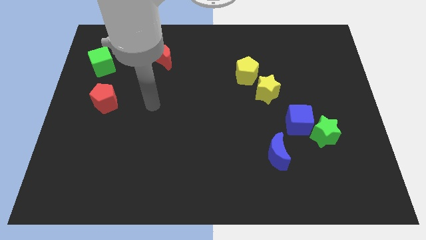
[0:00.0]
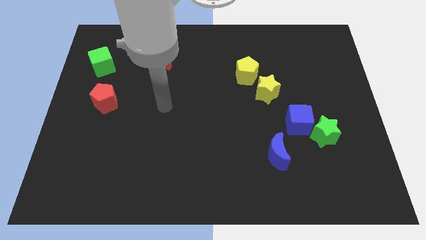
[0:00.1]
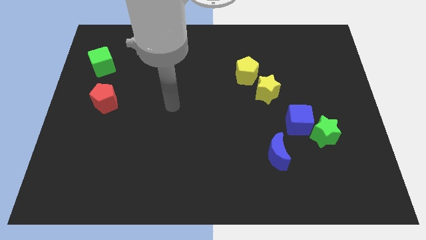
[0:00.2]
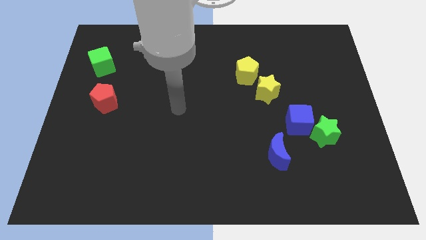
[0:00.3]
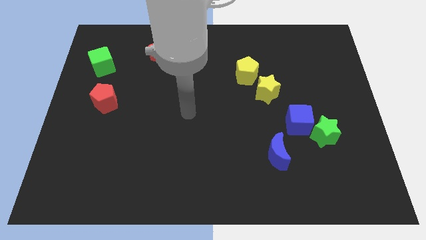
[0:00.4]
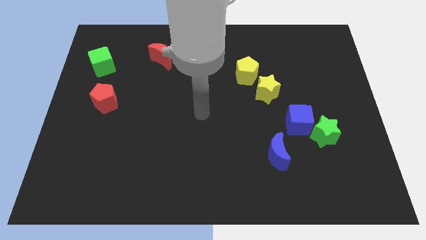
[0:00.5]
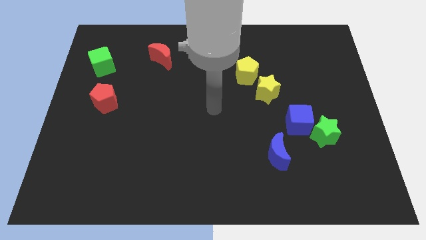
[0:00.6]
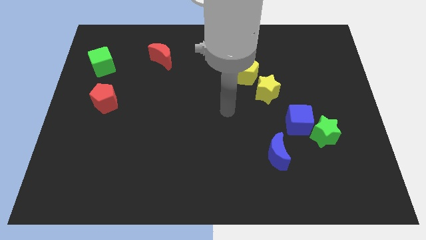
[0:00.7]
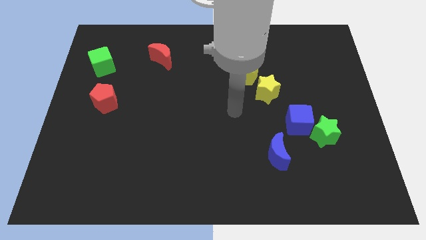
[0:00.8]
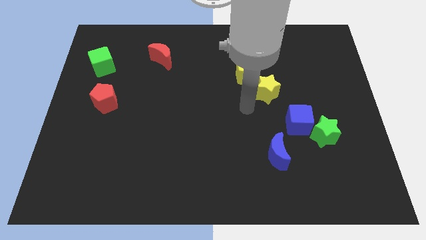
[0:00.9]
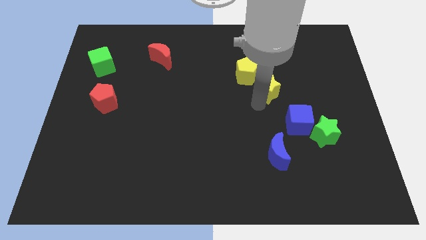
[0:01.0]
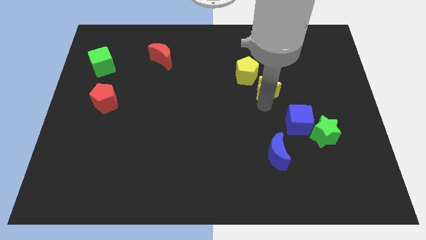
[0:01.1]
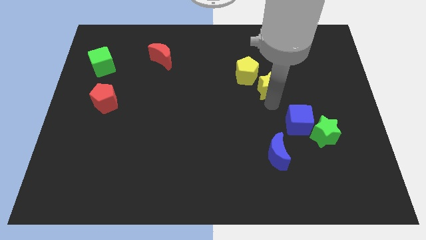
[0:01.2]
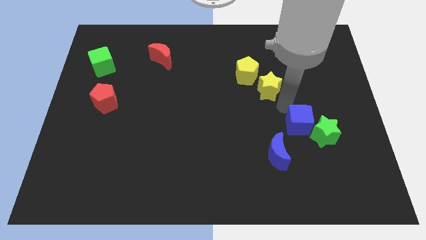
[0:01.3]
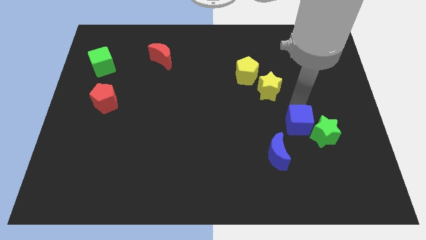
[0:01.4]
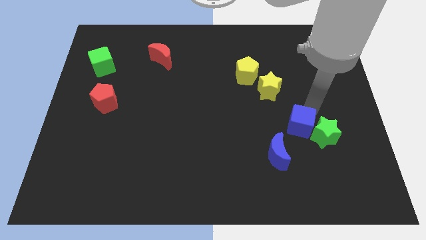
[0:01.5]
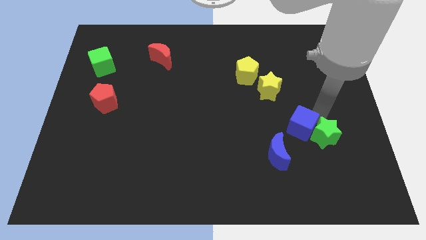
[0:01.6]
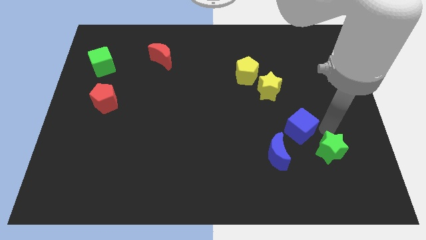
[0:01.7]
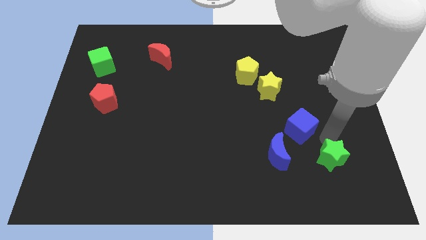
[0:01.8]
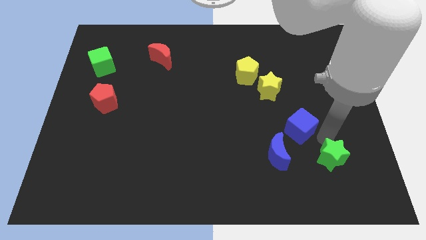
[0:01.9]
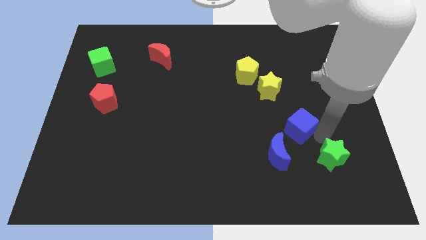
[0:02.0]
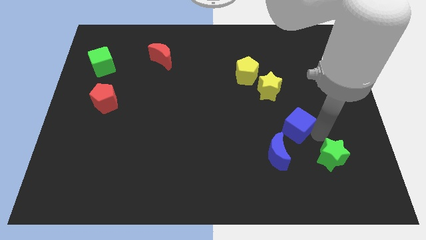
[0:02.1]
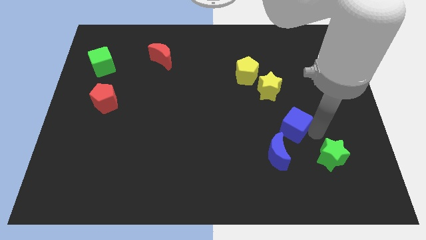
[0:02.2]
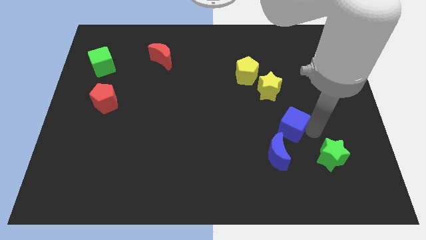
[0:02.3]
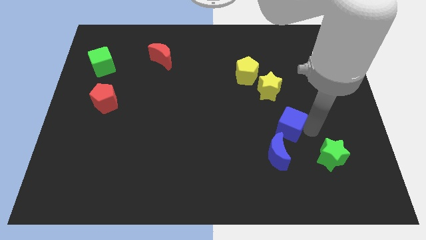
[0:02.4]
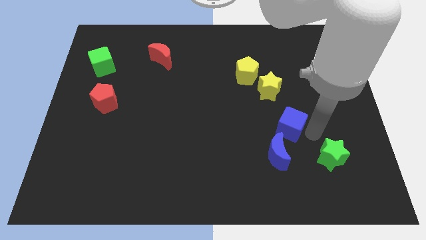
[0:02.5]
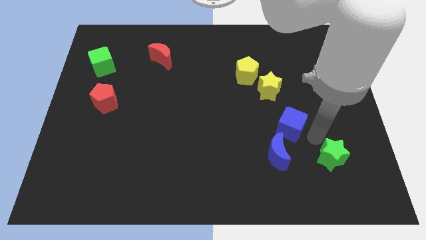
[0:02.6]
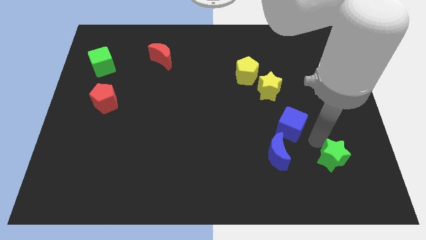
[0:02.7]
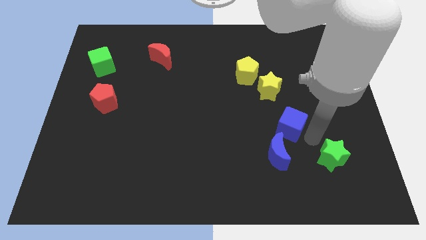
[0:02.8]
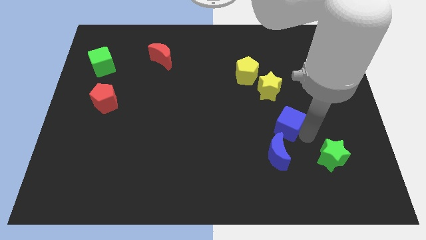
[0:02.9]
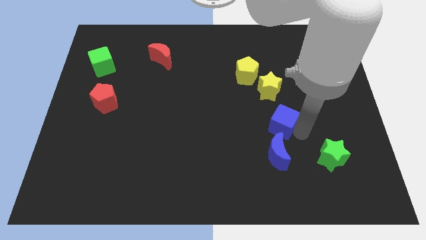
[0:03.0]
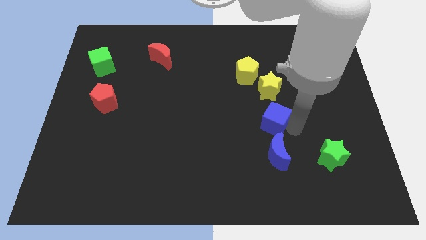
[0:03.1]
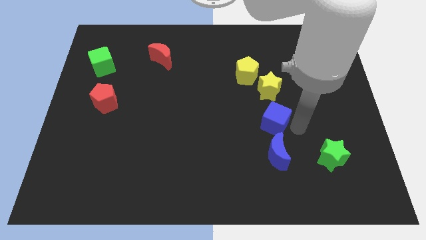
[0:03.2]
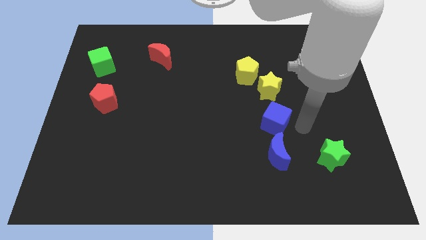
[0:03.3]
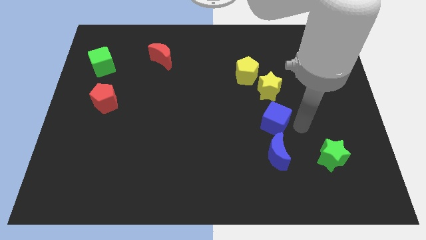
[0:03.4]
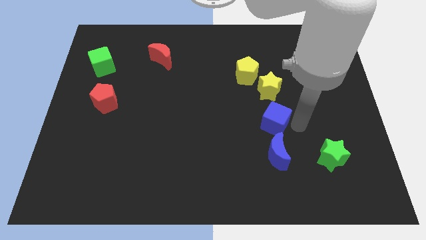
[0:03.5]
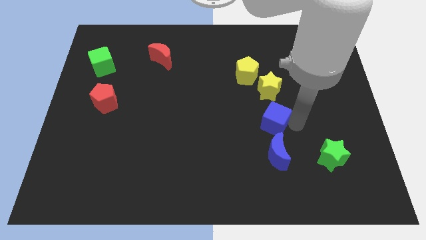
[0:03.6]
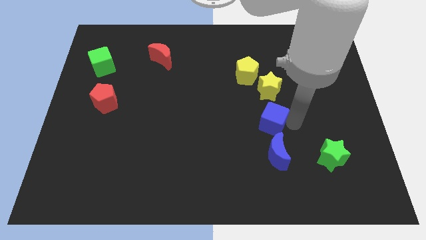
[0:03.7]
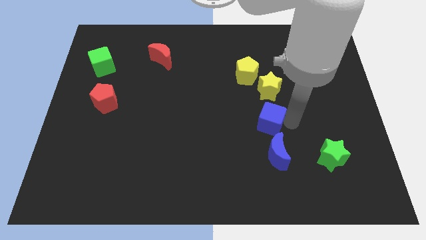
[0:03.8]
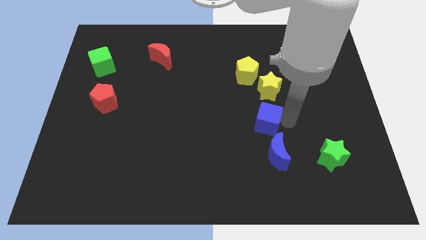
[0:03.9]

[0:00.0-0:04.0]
slightly move the blue cube to the left

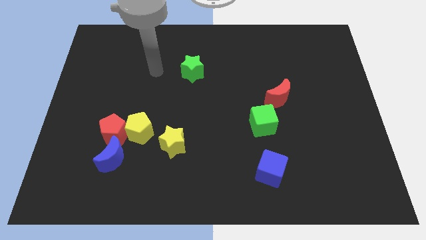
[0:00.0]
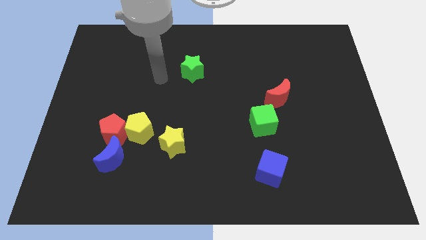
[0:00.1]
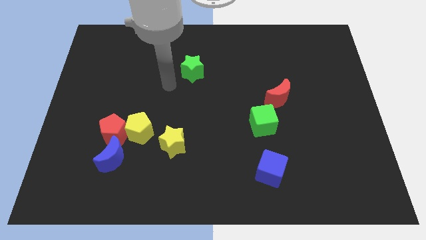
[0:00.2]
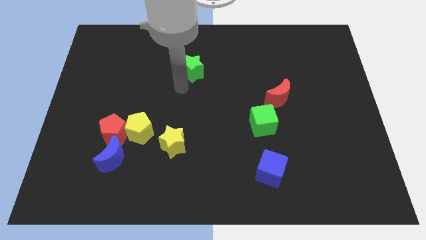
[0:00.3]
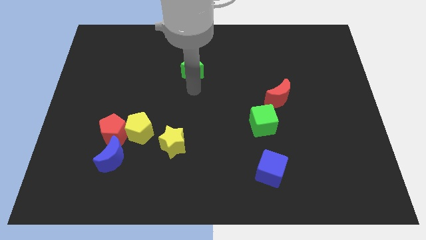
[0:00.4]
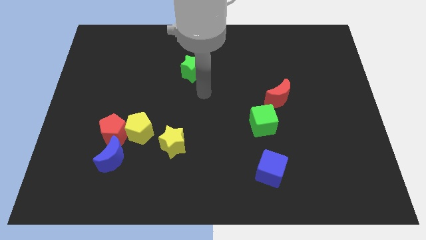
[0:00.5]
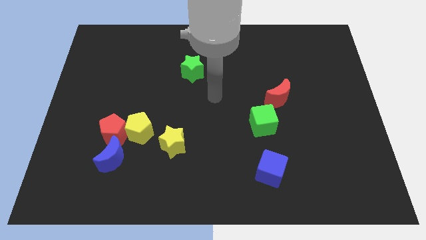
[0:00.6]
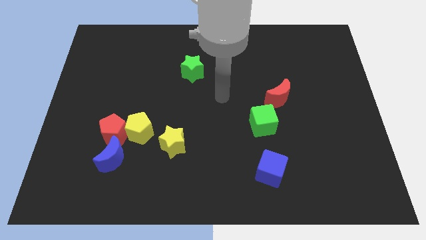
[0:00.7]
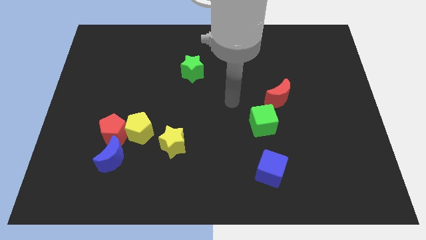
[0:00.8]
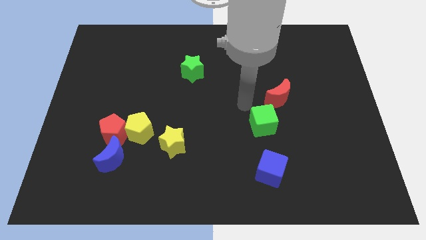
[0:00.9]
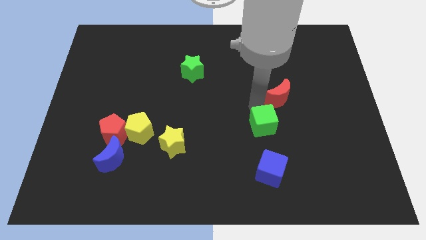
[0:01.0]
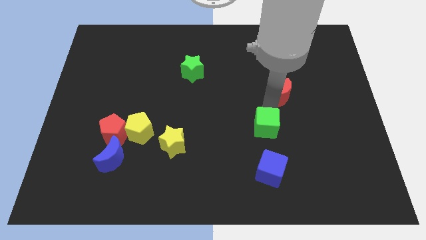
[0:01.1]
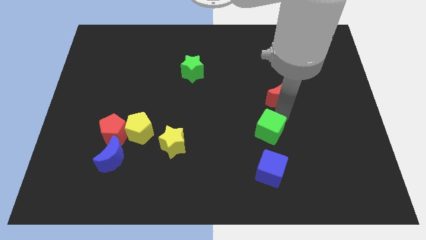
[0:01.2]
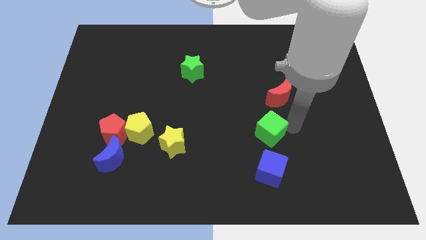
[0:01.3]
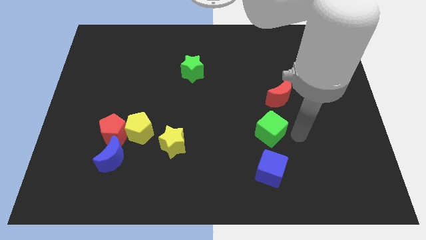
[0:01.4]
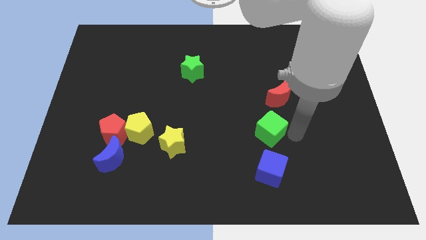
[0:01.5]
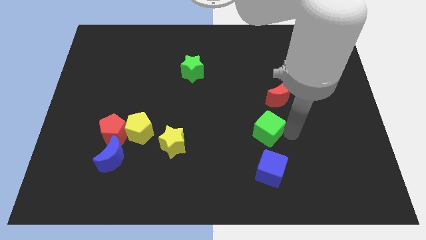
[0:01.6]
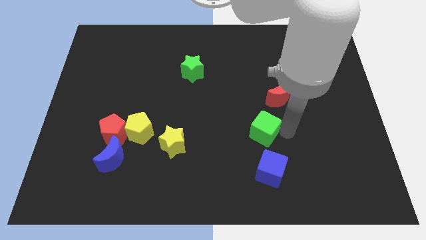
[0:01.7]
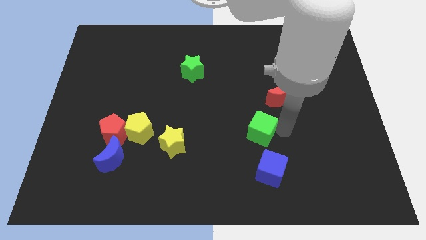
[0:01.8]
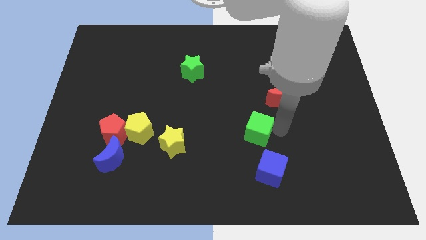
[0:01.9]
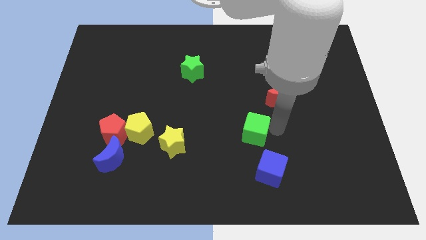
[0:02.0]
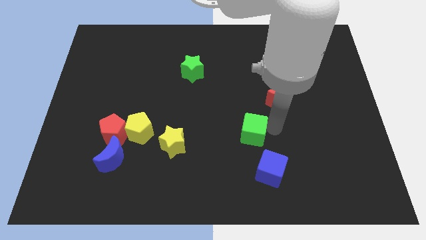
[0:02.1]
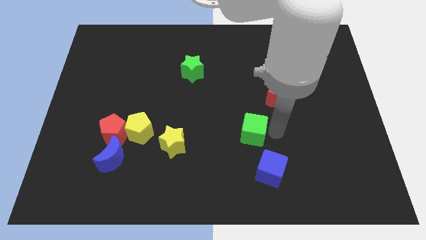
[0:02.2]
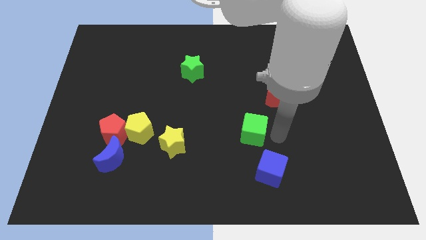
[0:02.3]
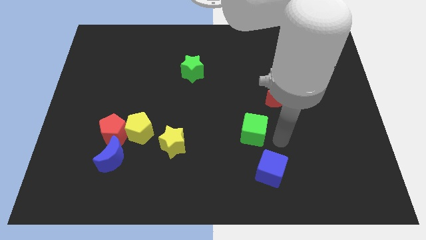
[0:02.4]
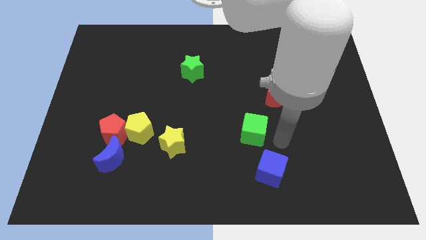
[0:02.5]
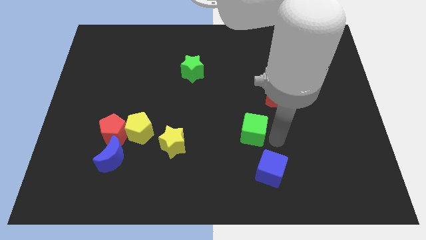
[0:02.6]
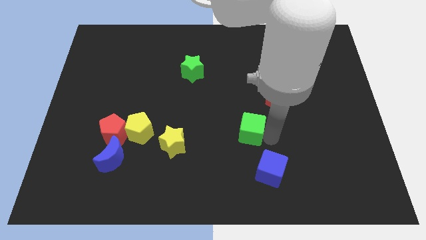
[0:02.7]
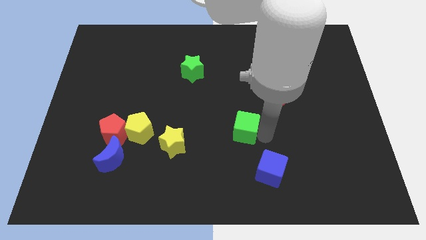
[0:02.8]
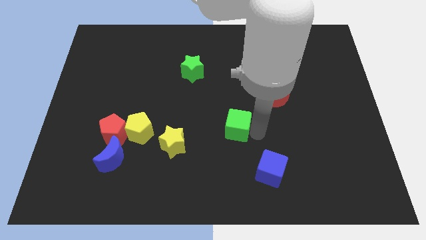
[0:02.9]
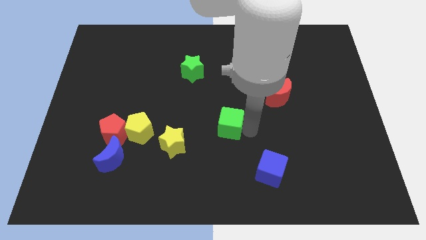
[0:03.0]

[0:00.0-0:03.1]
slightly move the green cube to the left

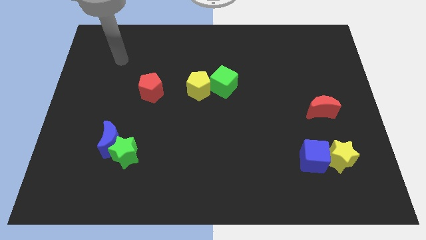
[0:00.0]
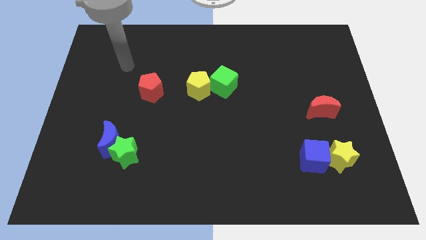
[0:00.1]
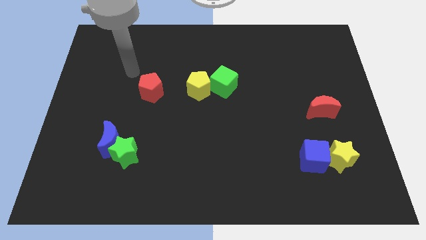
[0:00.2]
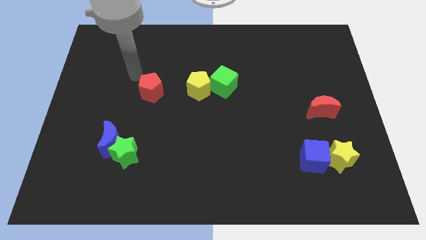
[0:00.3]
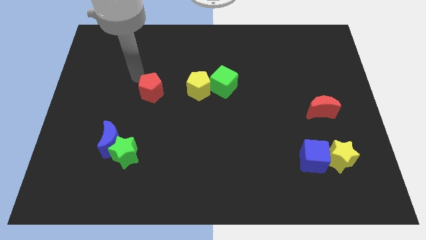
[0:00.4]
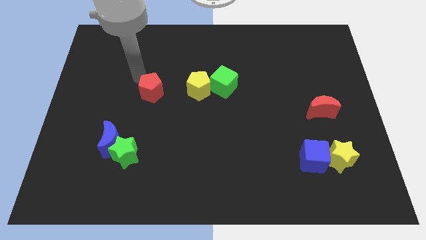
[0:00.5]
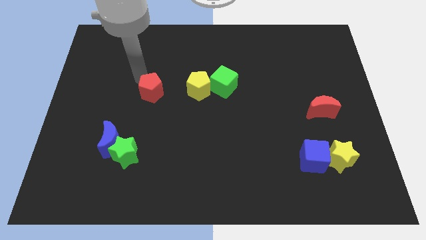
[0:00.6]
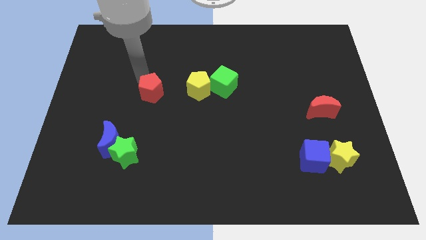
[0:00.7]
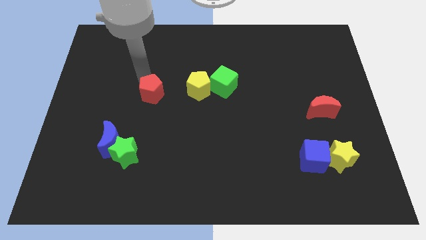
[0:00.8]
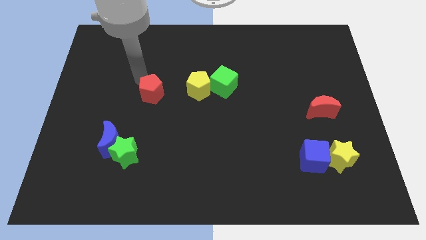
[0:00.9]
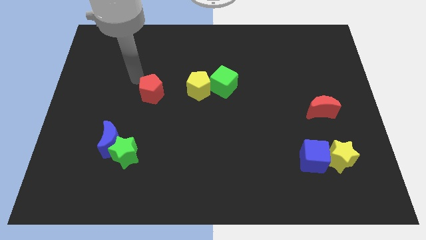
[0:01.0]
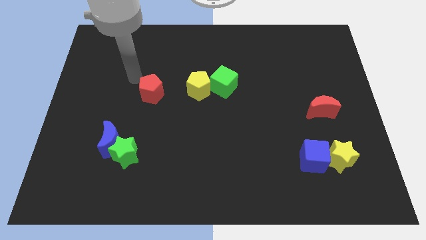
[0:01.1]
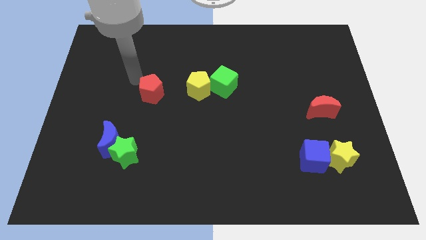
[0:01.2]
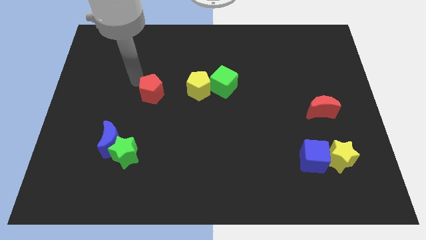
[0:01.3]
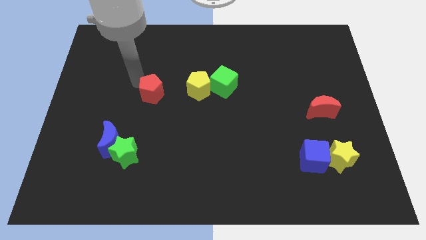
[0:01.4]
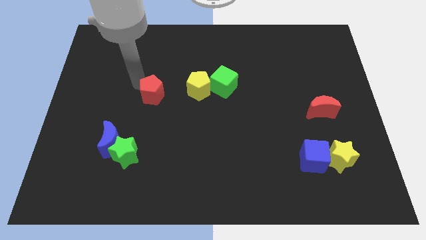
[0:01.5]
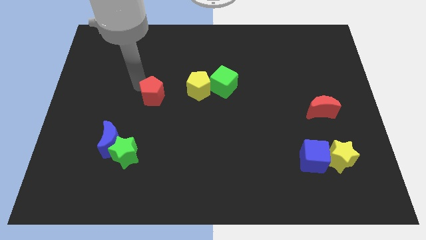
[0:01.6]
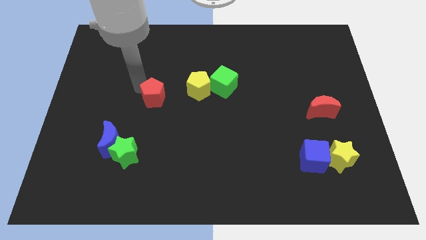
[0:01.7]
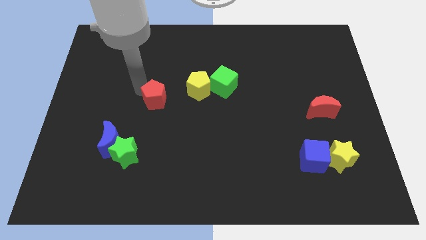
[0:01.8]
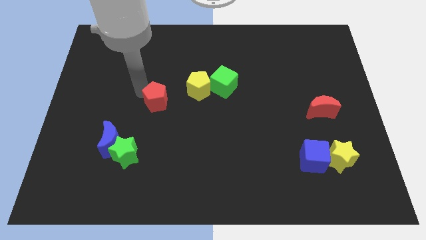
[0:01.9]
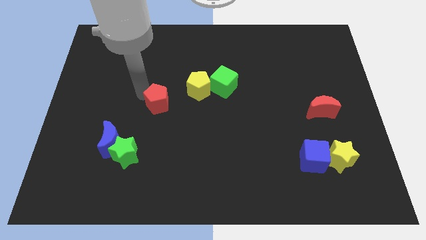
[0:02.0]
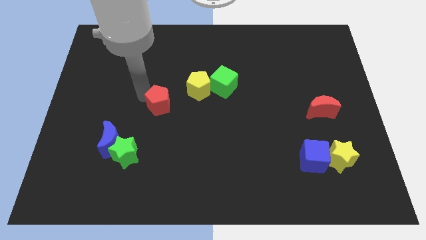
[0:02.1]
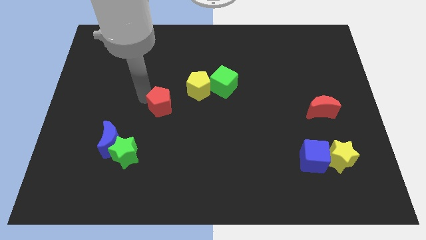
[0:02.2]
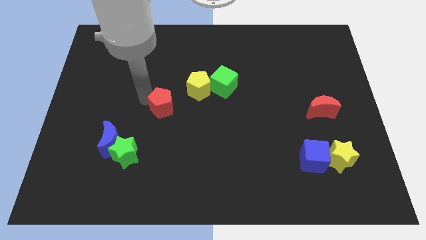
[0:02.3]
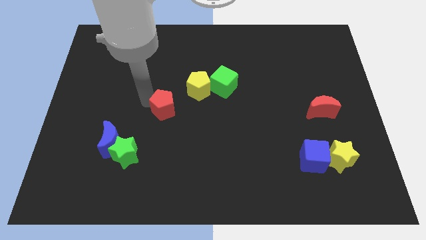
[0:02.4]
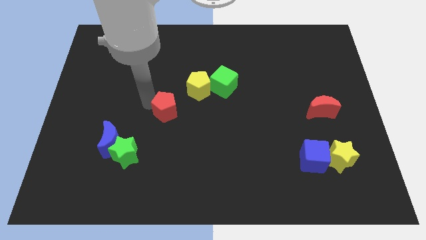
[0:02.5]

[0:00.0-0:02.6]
push the red pentagon a bit downwards and to the right diagonally
